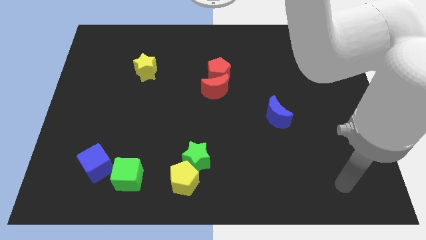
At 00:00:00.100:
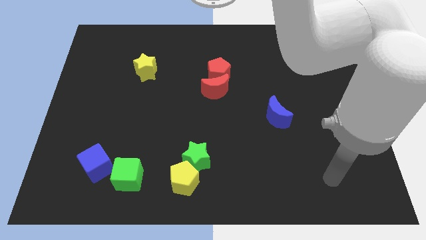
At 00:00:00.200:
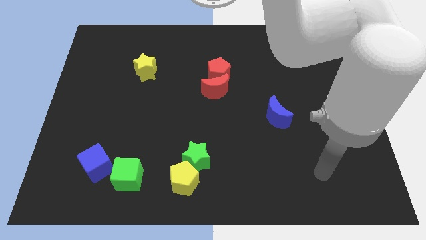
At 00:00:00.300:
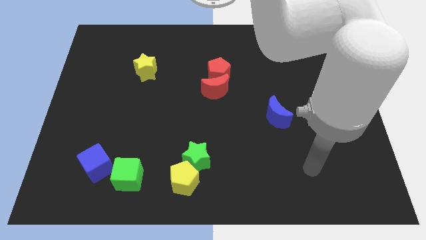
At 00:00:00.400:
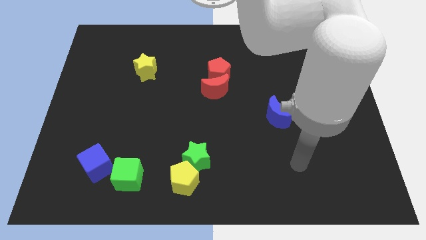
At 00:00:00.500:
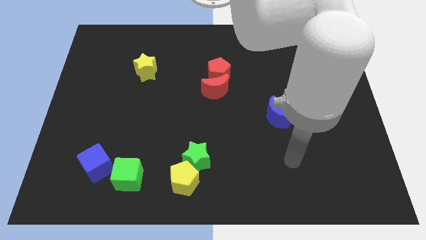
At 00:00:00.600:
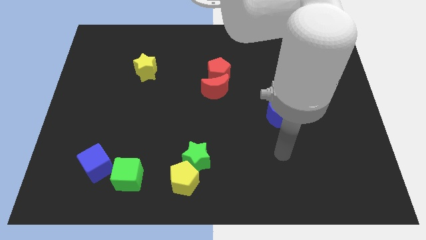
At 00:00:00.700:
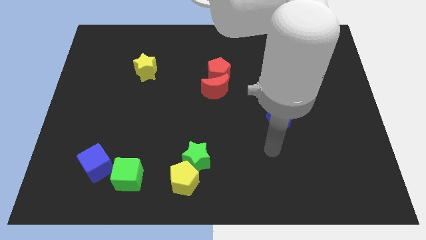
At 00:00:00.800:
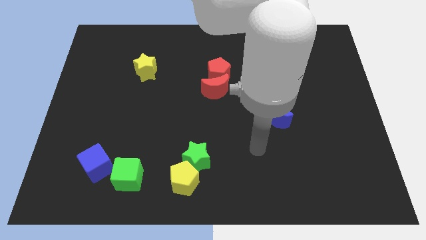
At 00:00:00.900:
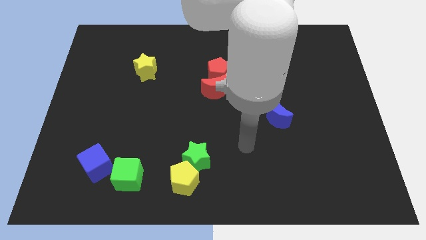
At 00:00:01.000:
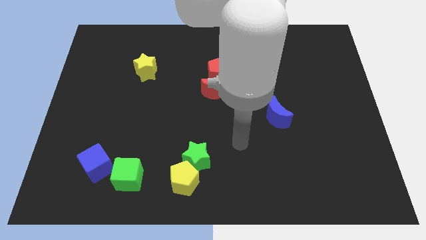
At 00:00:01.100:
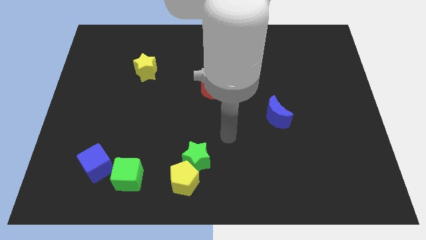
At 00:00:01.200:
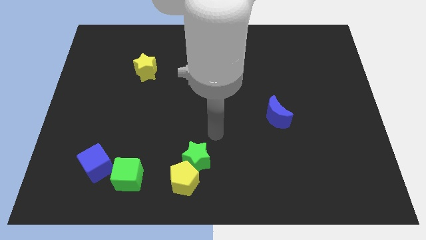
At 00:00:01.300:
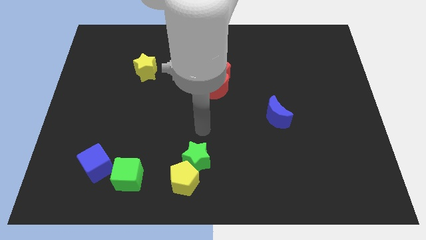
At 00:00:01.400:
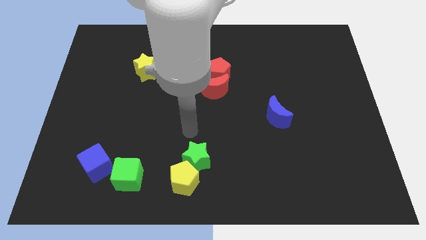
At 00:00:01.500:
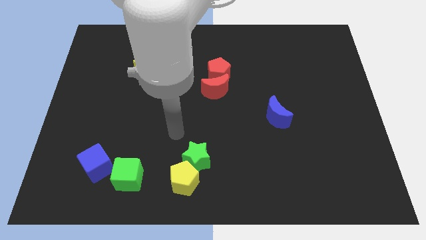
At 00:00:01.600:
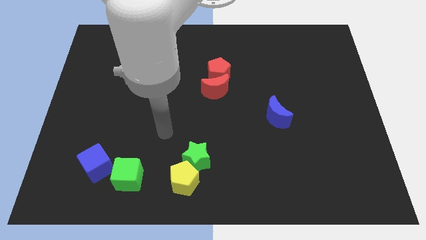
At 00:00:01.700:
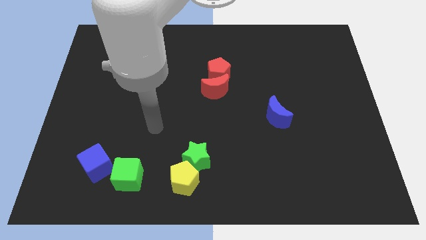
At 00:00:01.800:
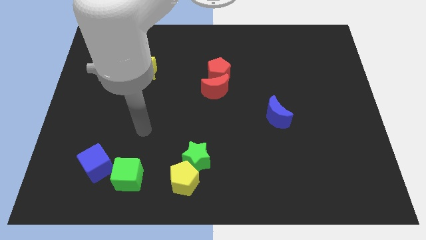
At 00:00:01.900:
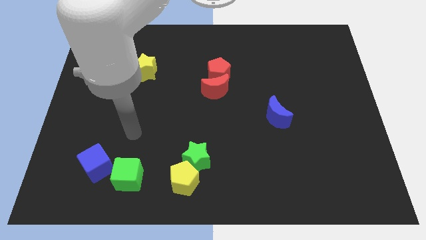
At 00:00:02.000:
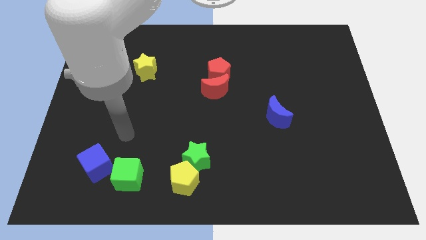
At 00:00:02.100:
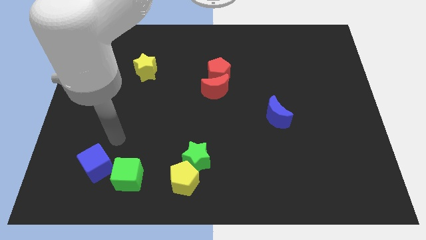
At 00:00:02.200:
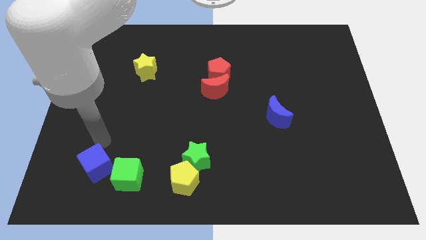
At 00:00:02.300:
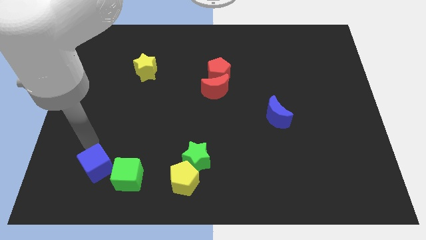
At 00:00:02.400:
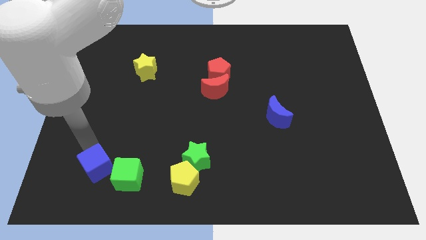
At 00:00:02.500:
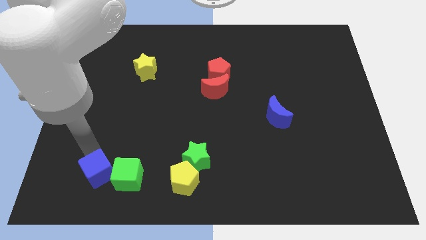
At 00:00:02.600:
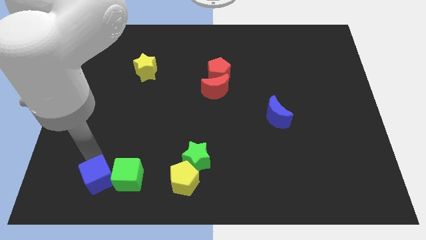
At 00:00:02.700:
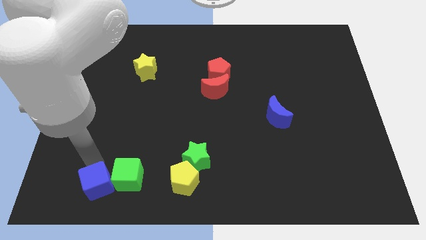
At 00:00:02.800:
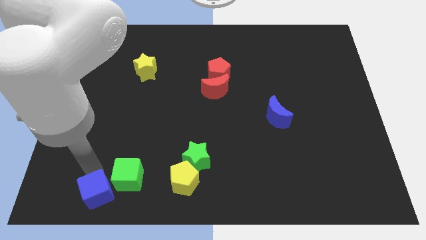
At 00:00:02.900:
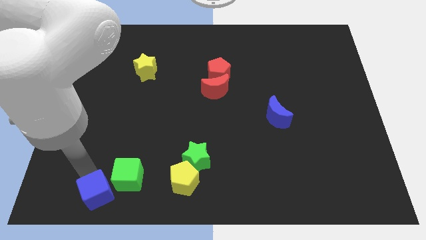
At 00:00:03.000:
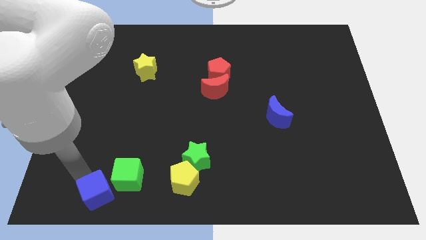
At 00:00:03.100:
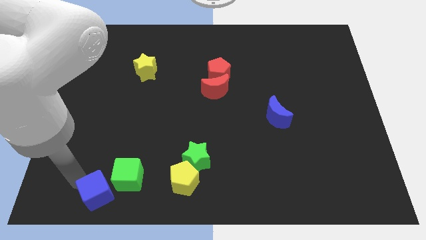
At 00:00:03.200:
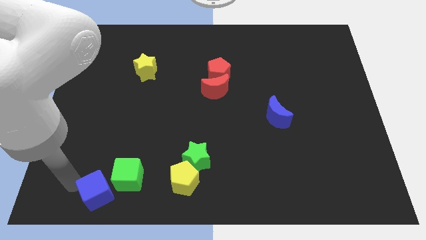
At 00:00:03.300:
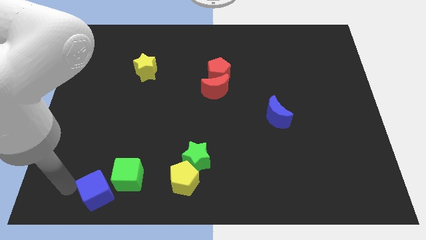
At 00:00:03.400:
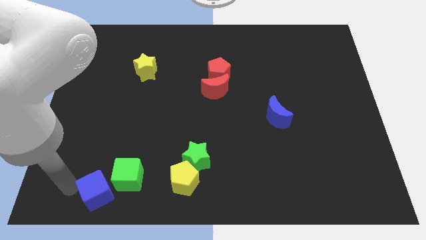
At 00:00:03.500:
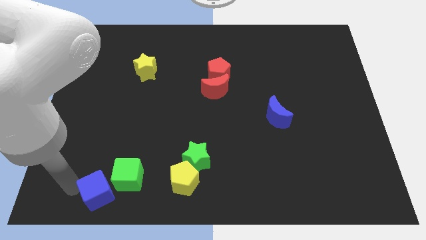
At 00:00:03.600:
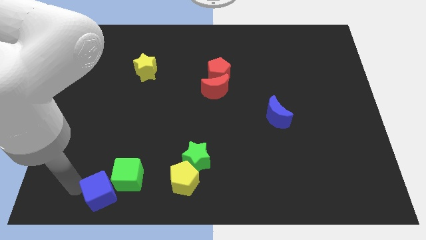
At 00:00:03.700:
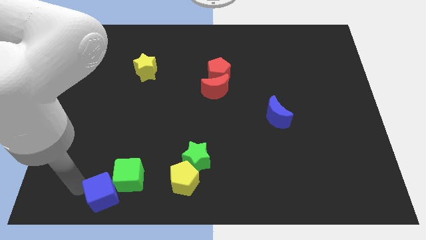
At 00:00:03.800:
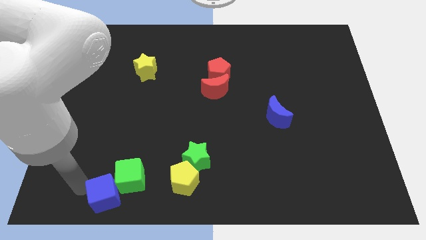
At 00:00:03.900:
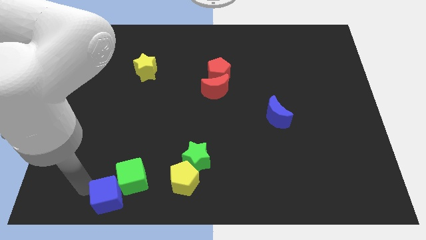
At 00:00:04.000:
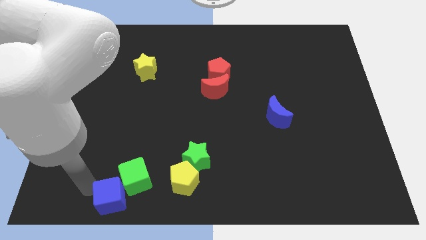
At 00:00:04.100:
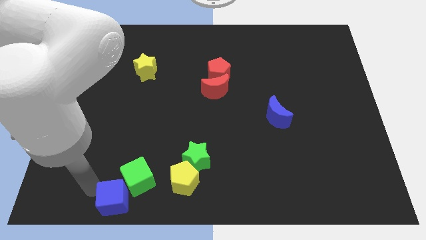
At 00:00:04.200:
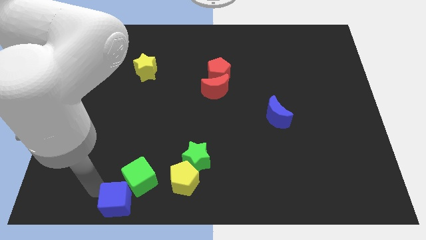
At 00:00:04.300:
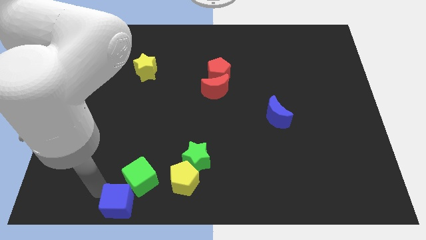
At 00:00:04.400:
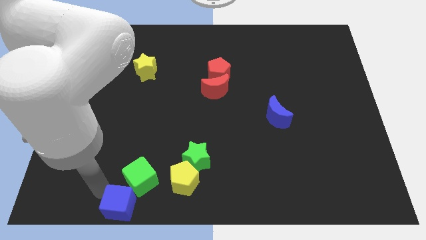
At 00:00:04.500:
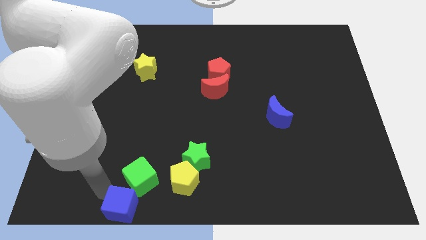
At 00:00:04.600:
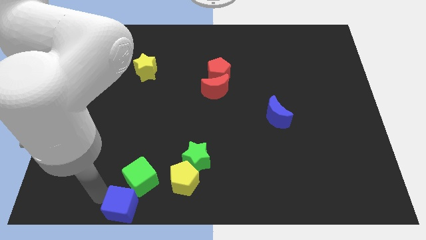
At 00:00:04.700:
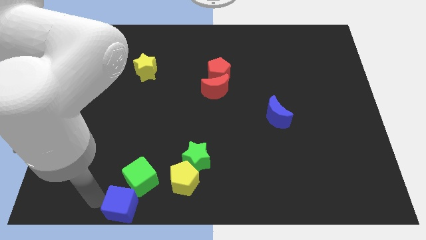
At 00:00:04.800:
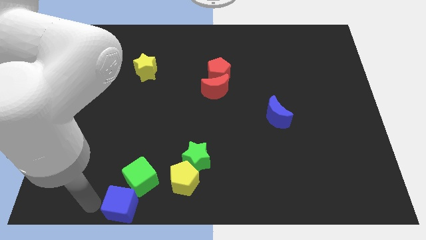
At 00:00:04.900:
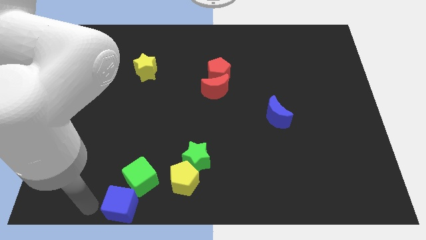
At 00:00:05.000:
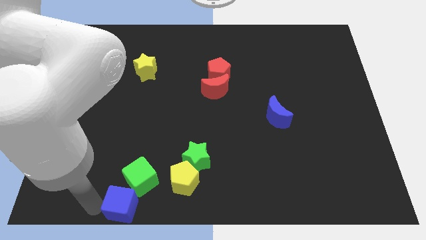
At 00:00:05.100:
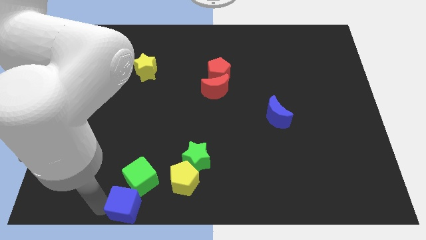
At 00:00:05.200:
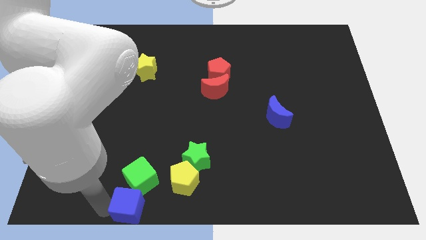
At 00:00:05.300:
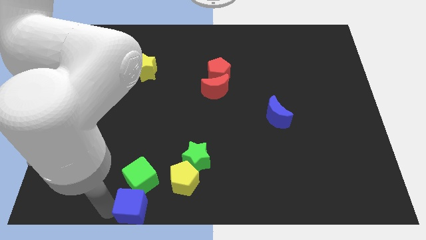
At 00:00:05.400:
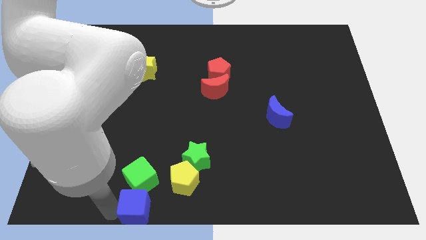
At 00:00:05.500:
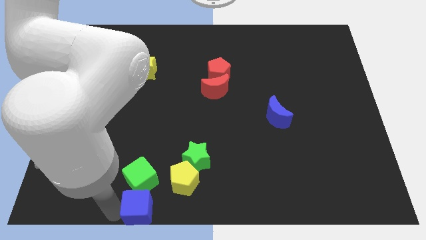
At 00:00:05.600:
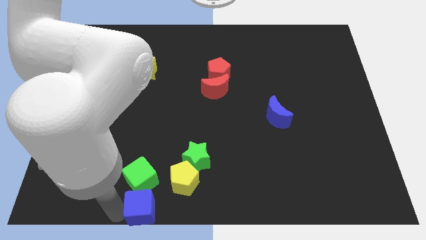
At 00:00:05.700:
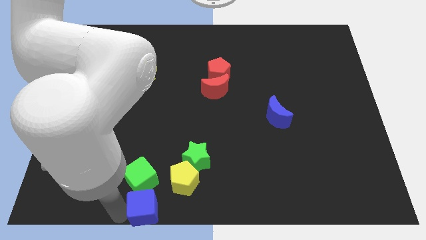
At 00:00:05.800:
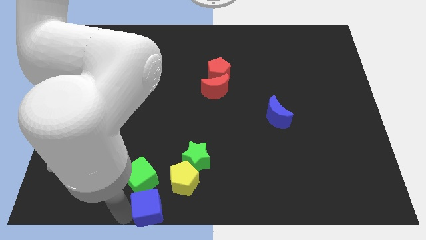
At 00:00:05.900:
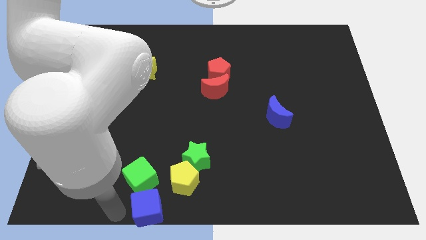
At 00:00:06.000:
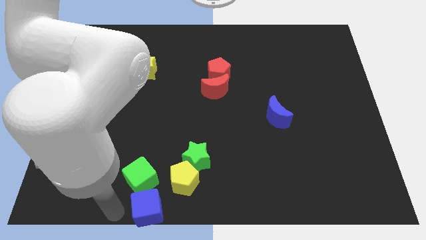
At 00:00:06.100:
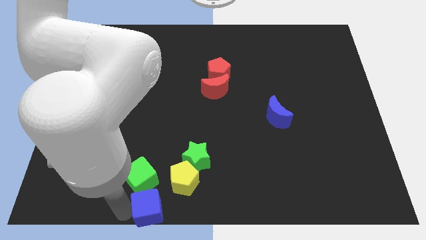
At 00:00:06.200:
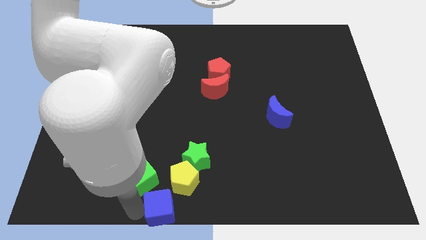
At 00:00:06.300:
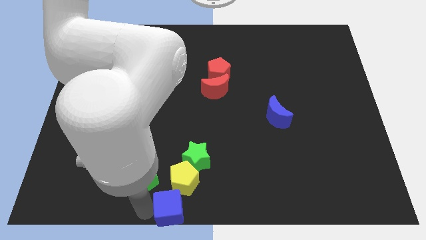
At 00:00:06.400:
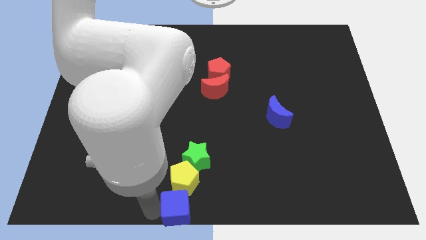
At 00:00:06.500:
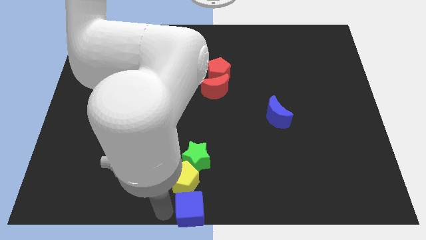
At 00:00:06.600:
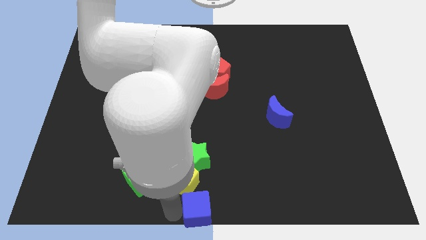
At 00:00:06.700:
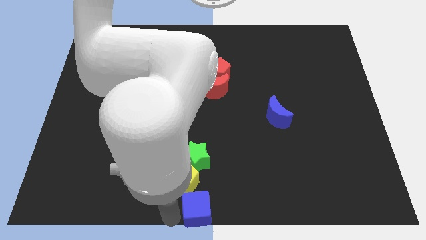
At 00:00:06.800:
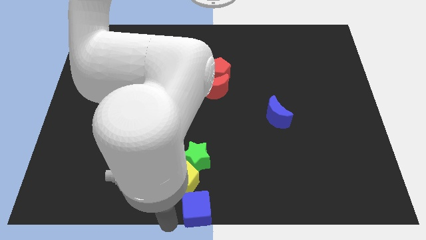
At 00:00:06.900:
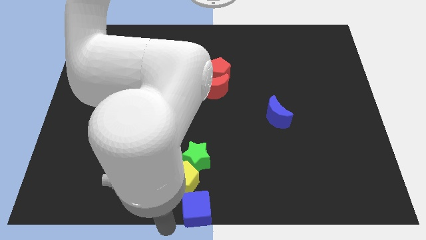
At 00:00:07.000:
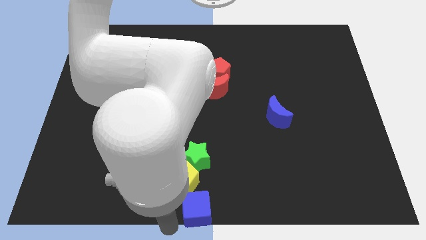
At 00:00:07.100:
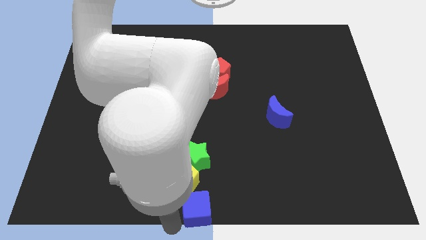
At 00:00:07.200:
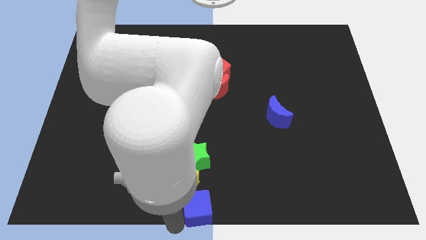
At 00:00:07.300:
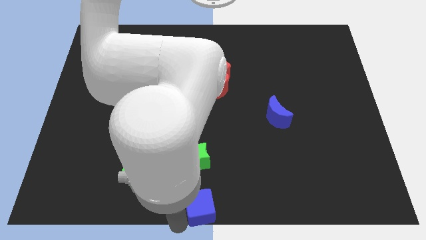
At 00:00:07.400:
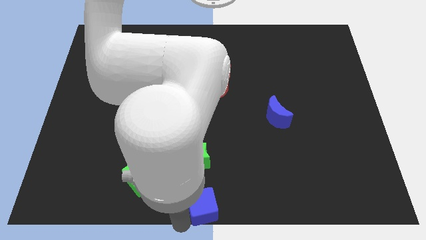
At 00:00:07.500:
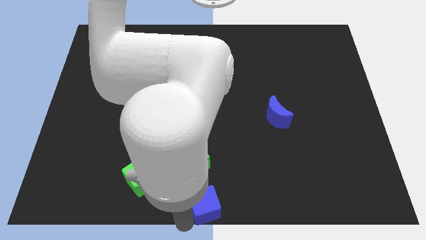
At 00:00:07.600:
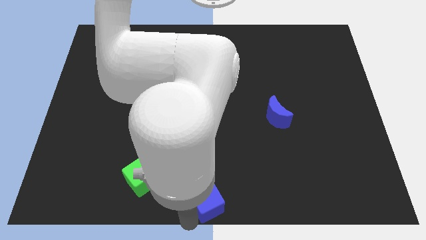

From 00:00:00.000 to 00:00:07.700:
put the blue cube to the right side of the yellow pentagon
